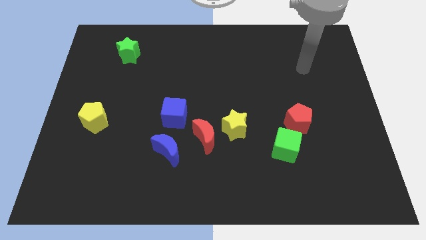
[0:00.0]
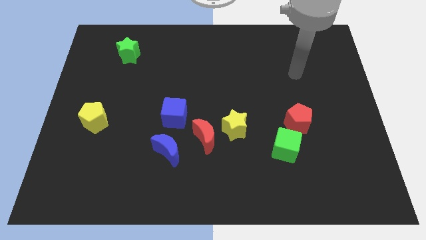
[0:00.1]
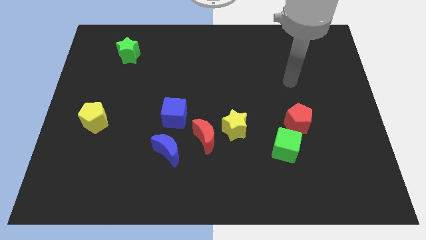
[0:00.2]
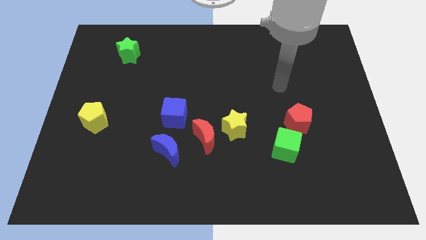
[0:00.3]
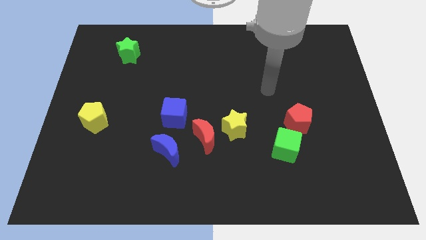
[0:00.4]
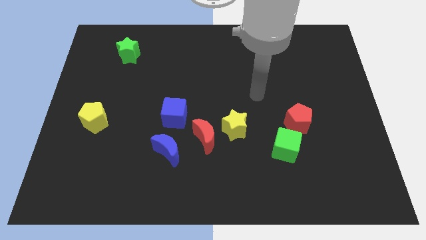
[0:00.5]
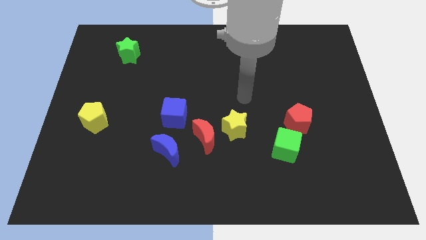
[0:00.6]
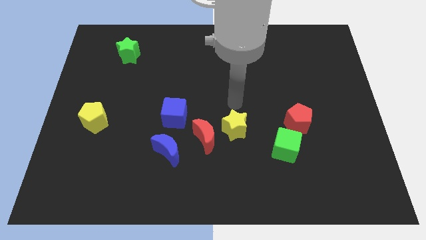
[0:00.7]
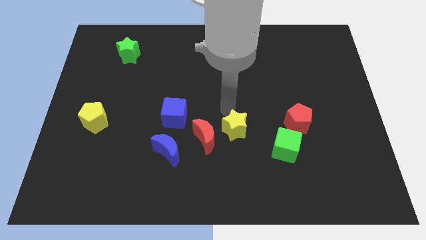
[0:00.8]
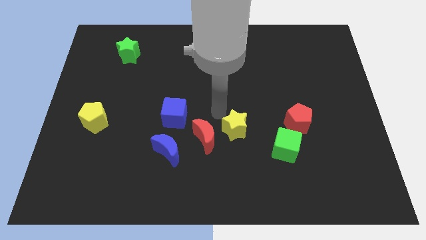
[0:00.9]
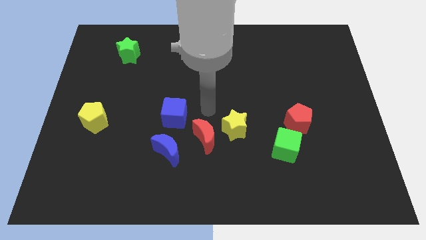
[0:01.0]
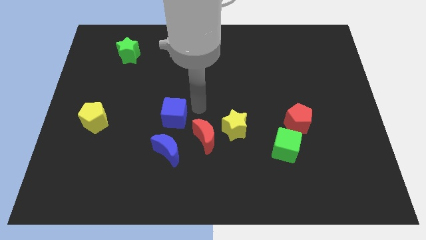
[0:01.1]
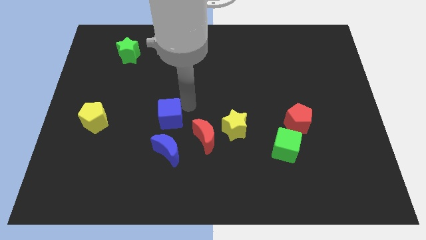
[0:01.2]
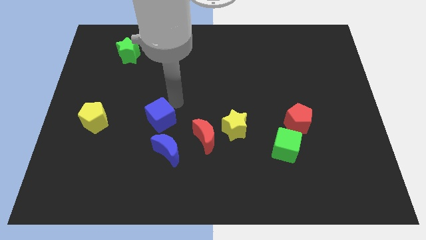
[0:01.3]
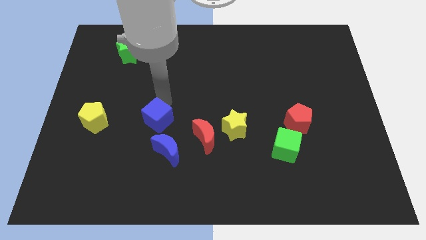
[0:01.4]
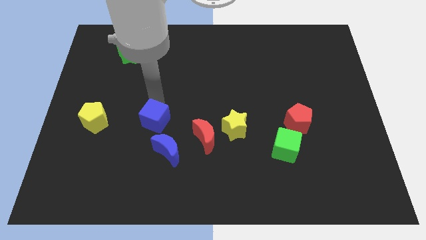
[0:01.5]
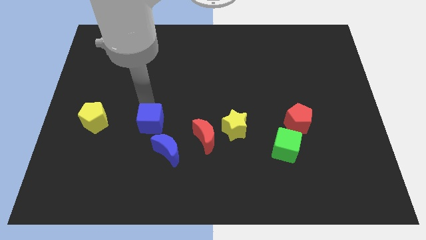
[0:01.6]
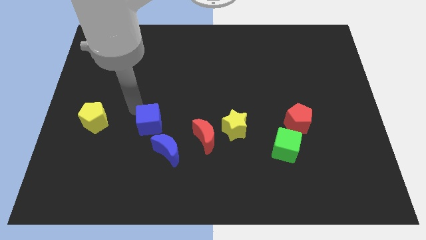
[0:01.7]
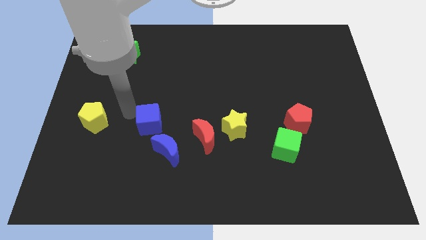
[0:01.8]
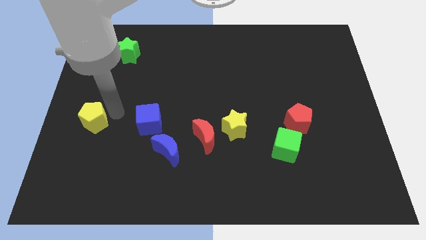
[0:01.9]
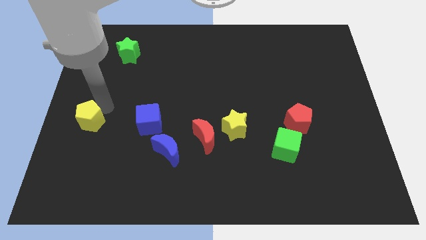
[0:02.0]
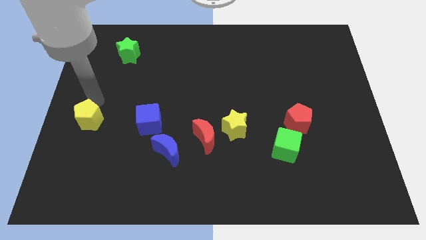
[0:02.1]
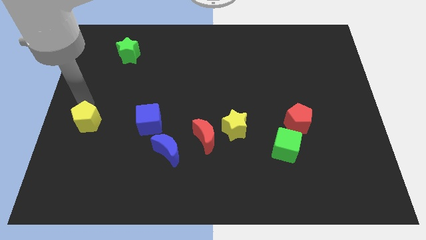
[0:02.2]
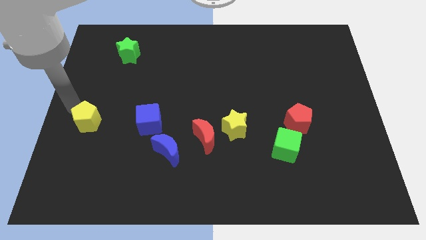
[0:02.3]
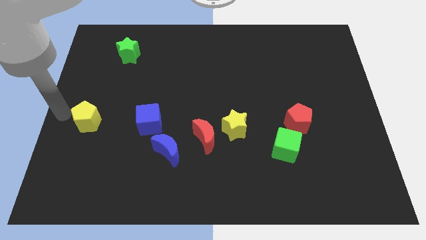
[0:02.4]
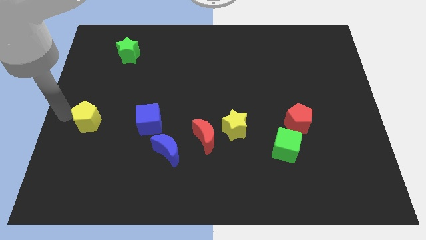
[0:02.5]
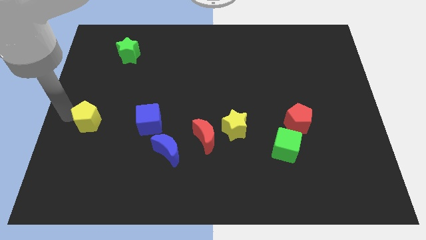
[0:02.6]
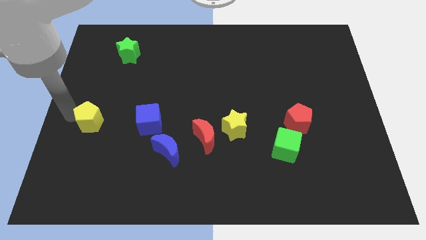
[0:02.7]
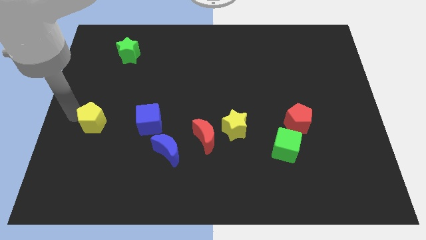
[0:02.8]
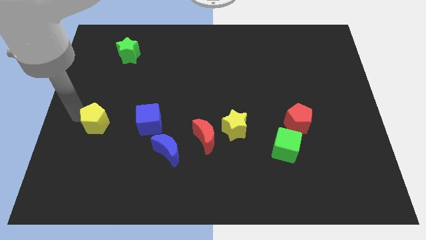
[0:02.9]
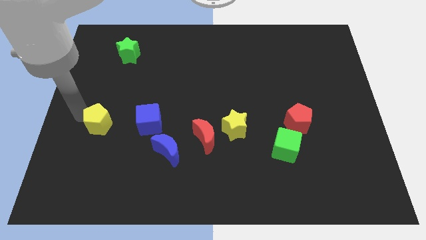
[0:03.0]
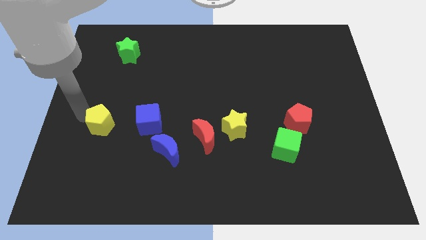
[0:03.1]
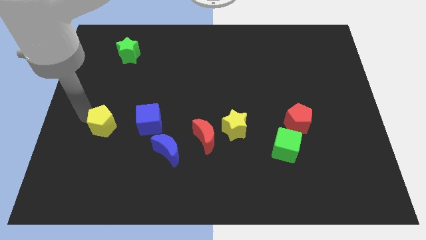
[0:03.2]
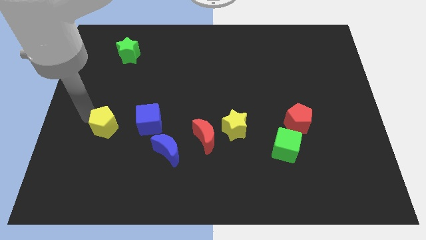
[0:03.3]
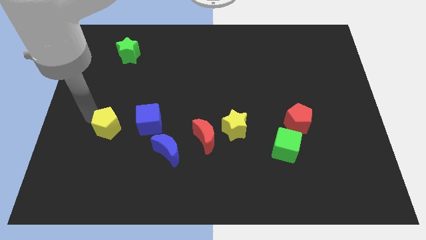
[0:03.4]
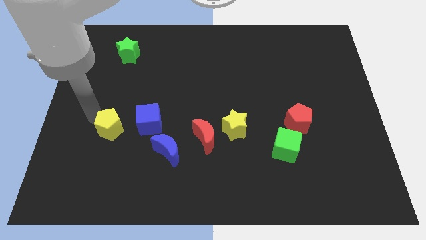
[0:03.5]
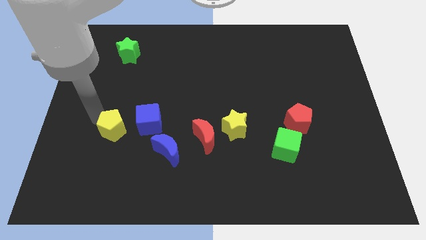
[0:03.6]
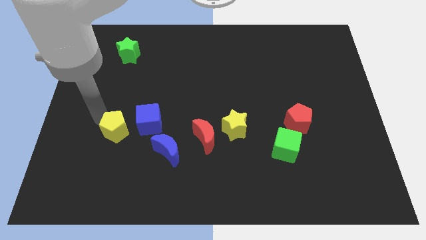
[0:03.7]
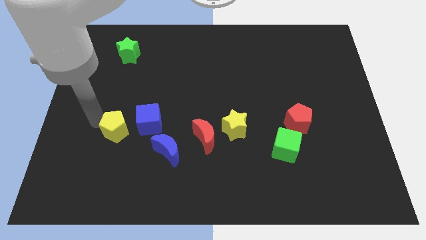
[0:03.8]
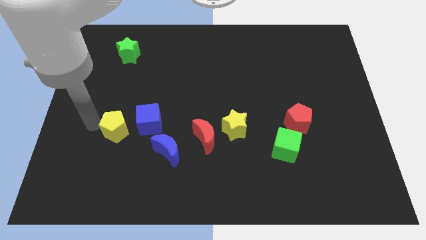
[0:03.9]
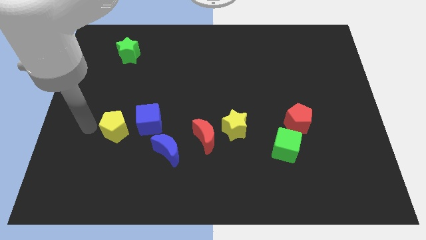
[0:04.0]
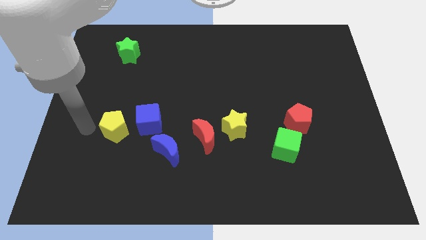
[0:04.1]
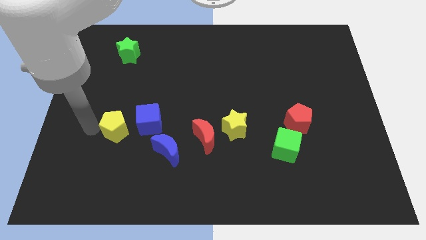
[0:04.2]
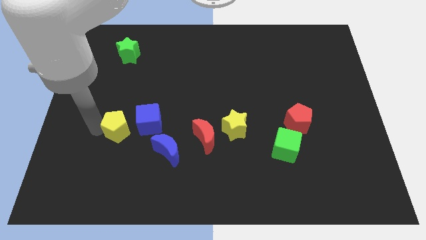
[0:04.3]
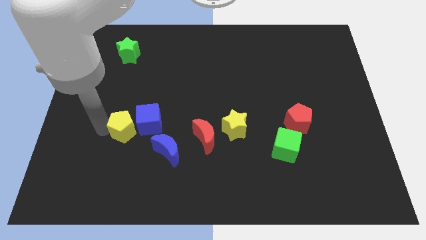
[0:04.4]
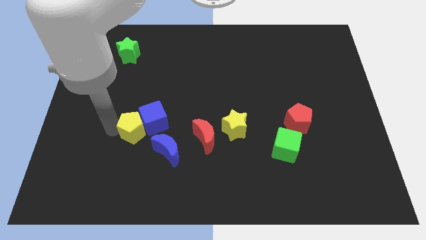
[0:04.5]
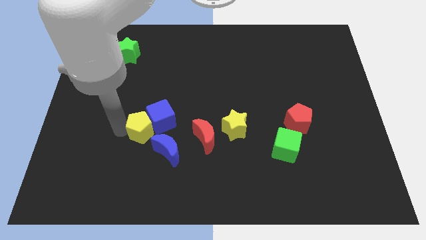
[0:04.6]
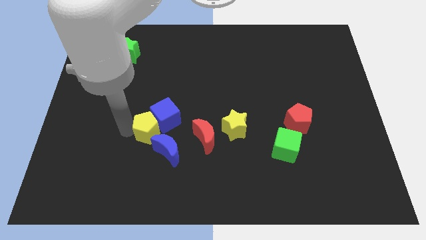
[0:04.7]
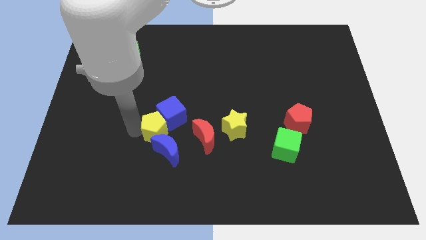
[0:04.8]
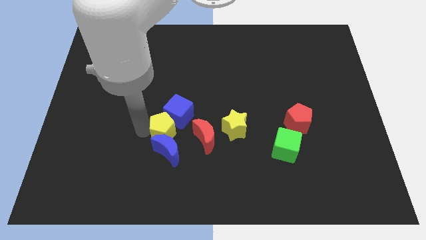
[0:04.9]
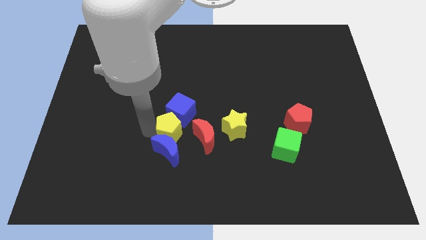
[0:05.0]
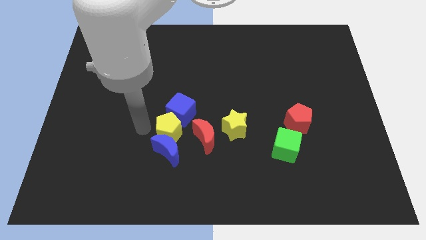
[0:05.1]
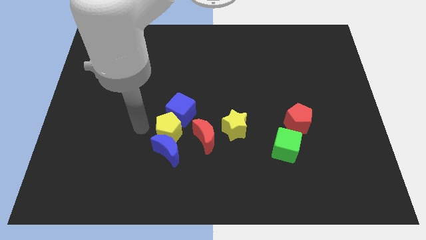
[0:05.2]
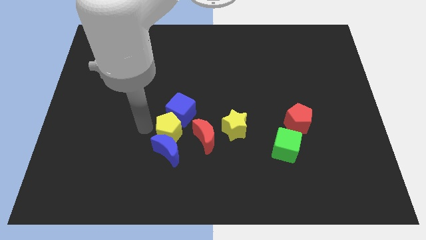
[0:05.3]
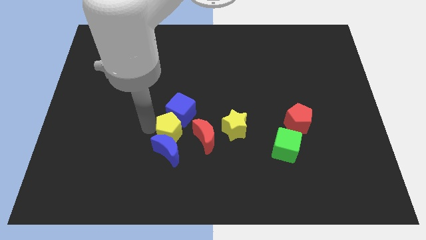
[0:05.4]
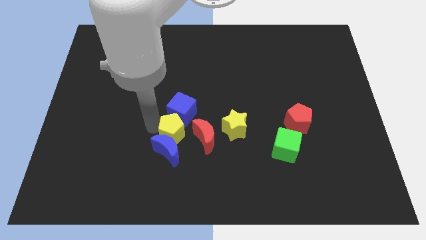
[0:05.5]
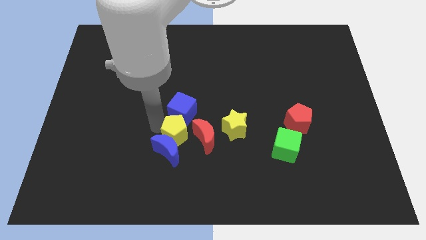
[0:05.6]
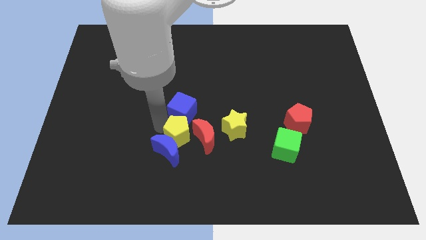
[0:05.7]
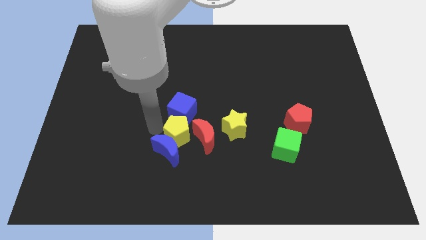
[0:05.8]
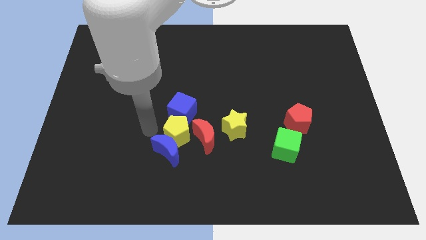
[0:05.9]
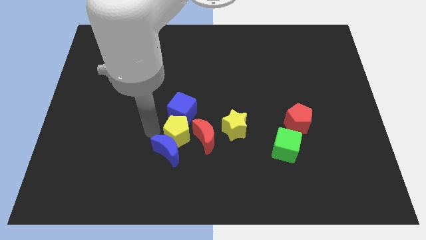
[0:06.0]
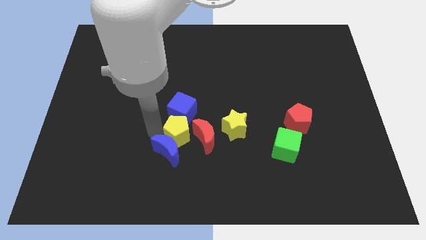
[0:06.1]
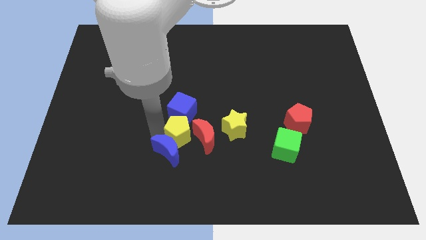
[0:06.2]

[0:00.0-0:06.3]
slide the yellow pentagon towards the red moon

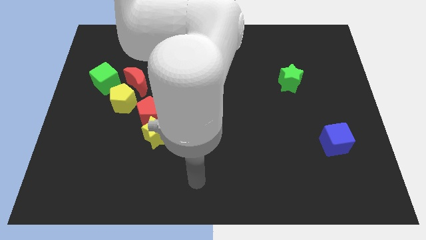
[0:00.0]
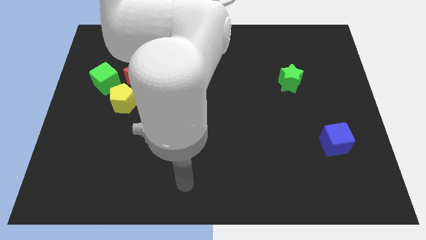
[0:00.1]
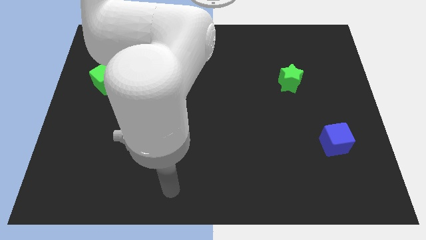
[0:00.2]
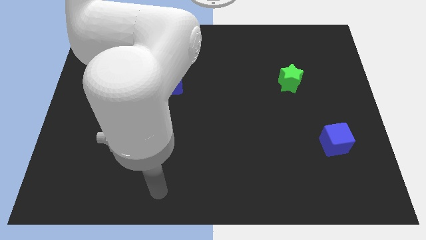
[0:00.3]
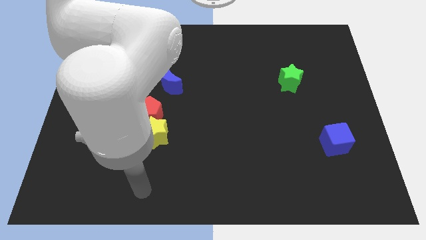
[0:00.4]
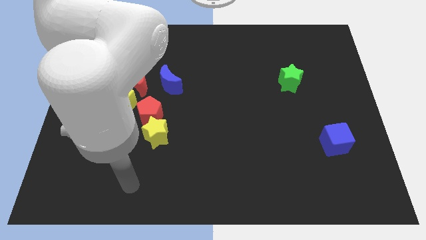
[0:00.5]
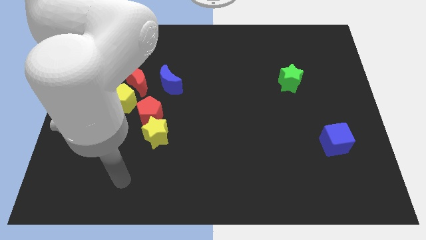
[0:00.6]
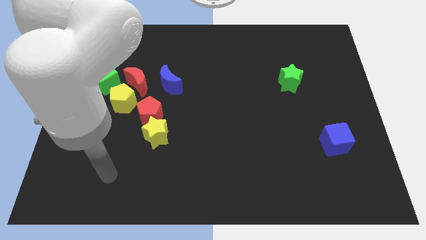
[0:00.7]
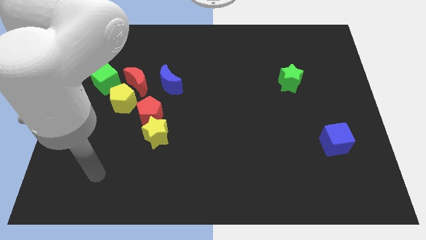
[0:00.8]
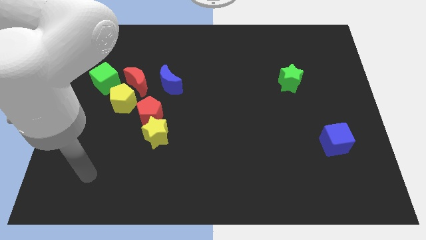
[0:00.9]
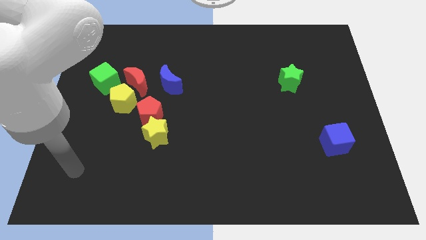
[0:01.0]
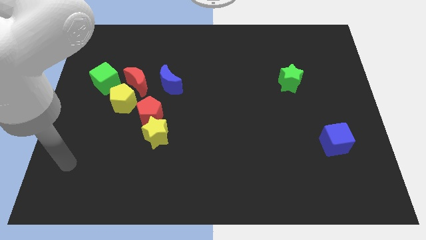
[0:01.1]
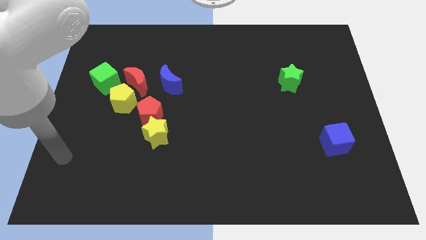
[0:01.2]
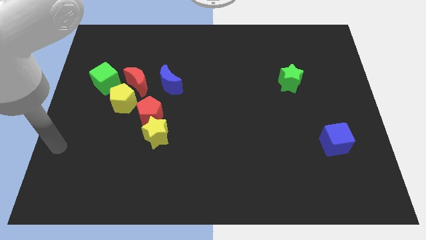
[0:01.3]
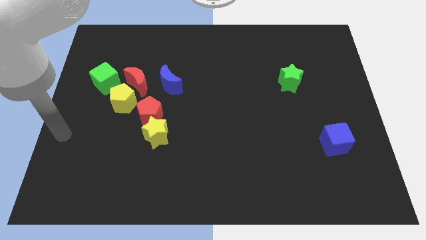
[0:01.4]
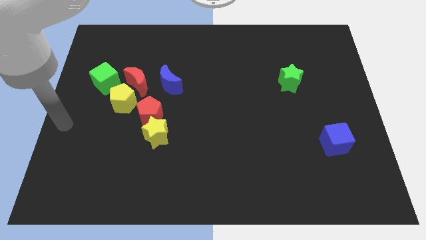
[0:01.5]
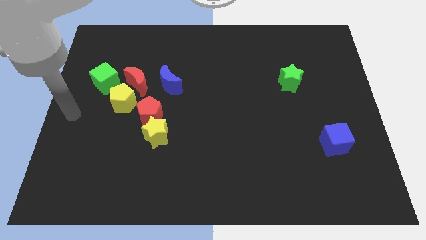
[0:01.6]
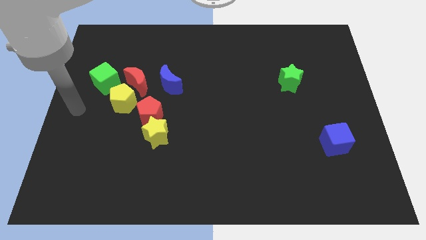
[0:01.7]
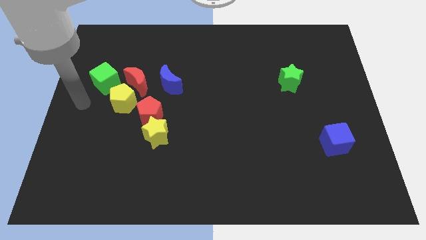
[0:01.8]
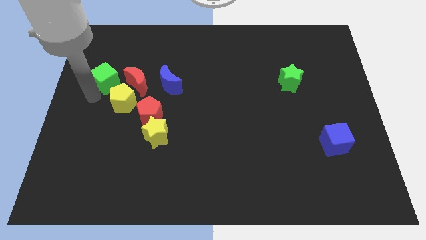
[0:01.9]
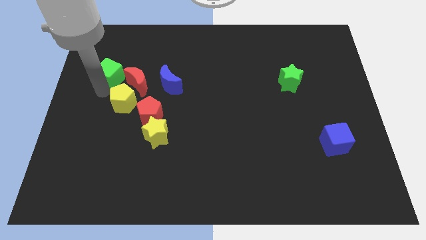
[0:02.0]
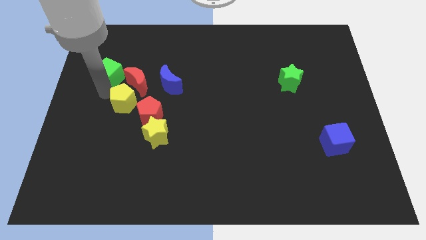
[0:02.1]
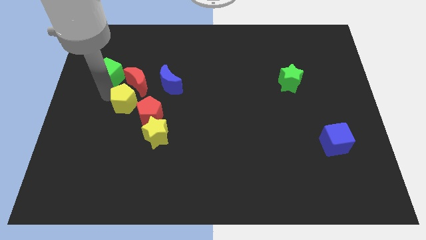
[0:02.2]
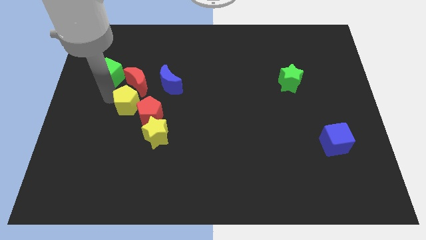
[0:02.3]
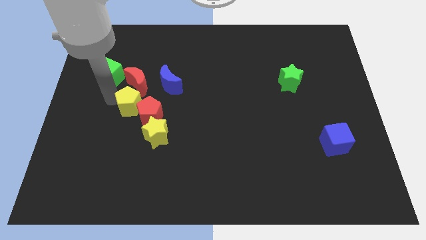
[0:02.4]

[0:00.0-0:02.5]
move the yellow pentagon close to the red pentagon
